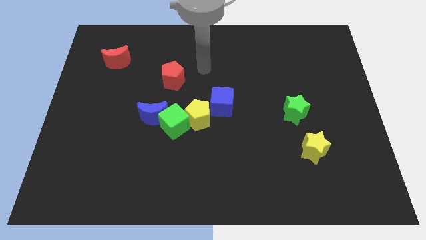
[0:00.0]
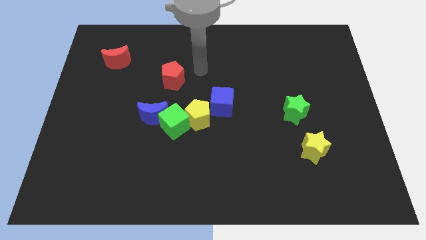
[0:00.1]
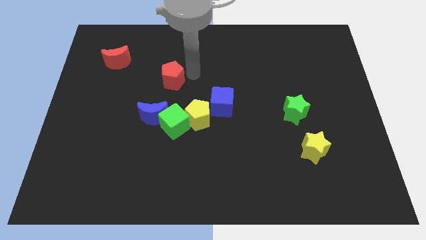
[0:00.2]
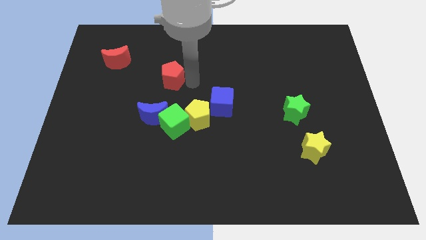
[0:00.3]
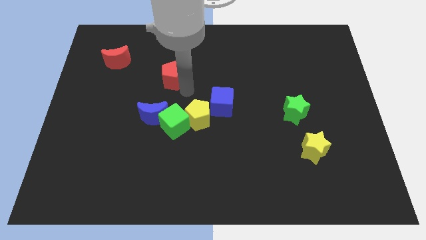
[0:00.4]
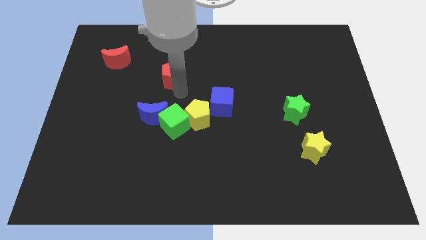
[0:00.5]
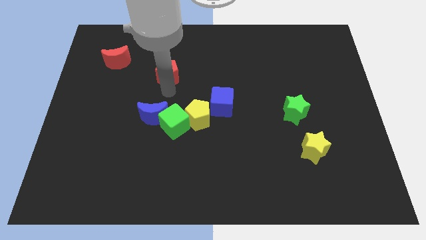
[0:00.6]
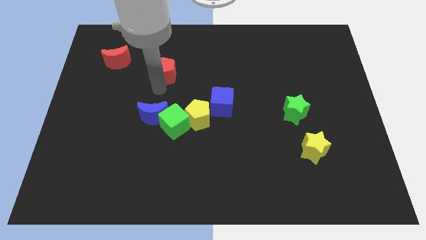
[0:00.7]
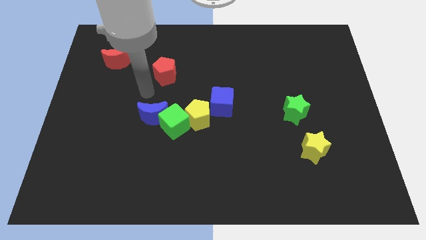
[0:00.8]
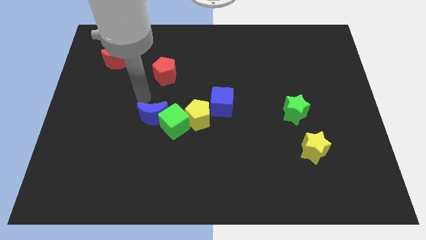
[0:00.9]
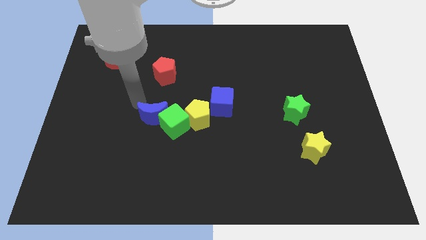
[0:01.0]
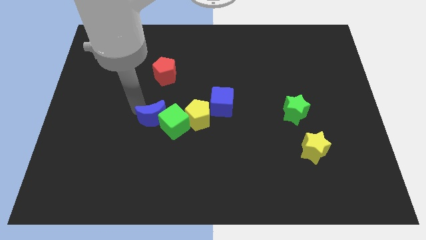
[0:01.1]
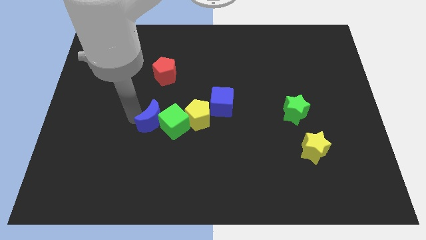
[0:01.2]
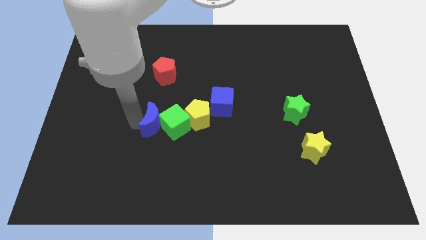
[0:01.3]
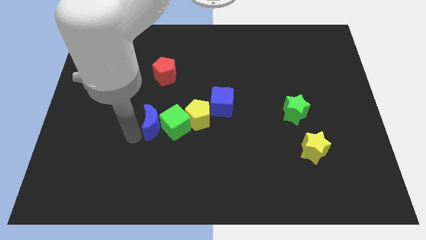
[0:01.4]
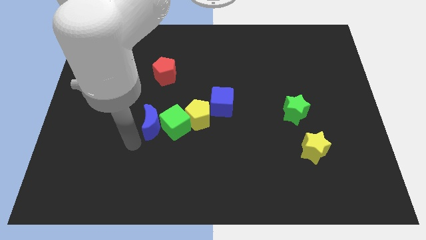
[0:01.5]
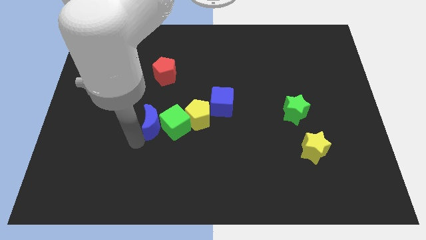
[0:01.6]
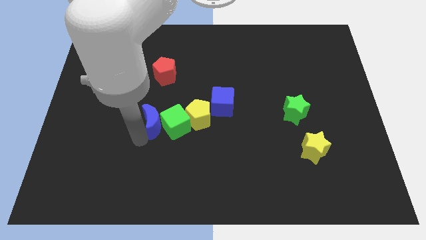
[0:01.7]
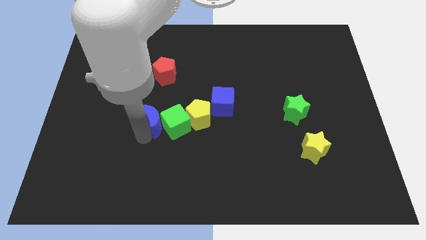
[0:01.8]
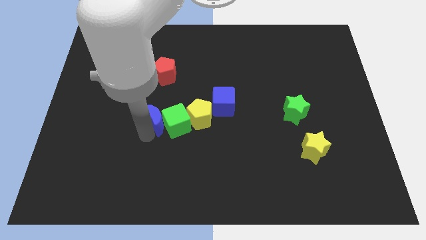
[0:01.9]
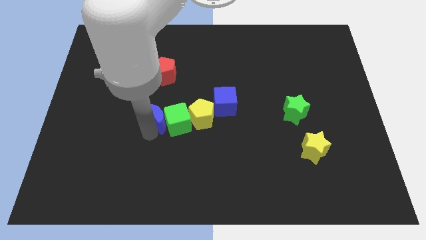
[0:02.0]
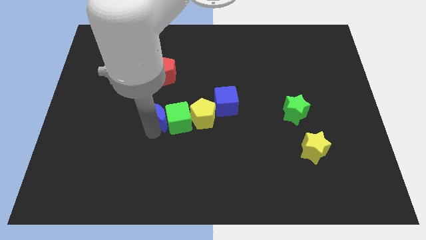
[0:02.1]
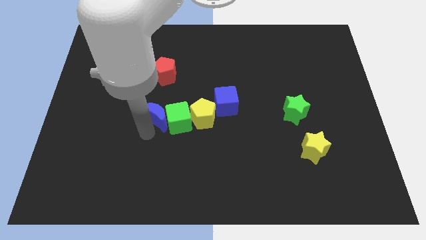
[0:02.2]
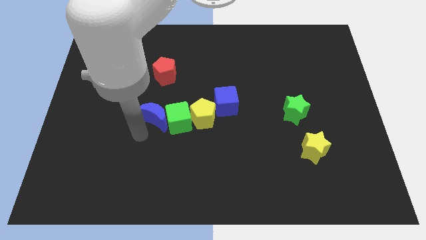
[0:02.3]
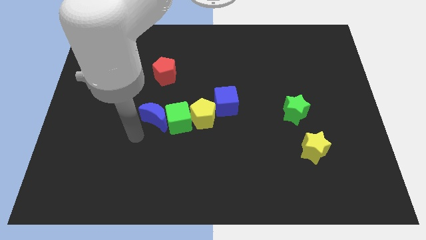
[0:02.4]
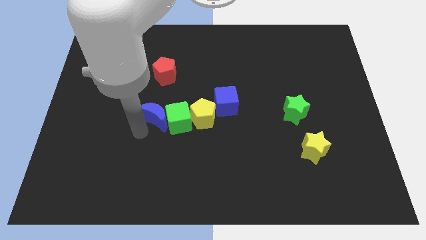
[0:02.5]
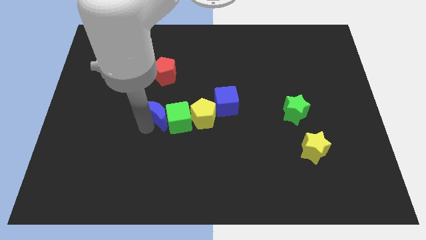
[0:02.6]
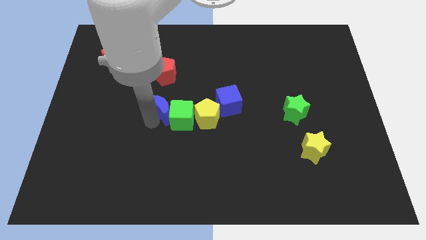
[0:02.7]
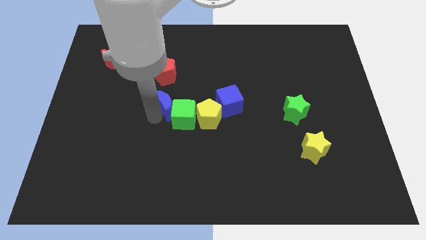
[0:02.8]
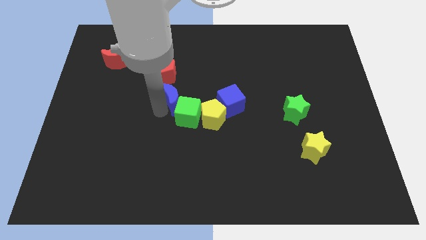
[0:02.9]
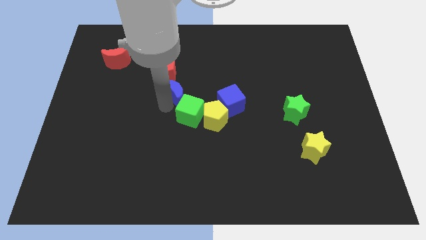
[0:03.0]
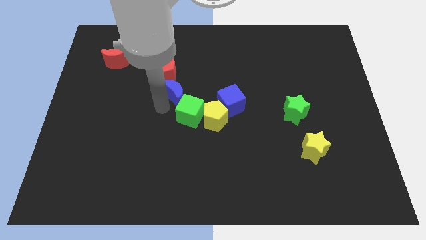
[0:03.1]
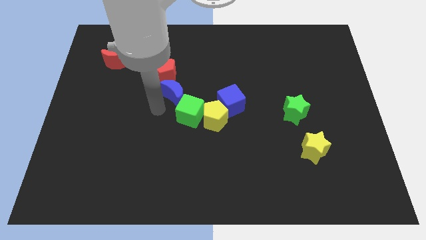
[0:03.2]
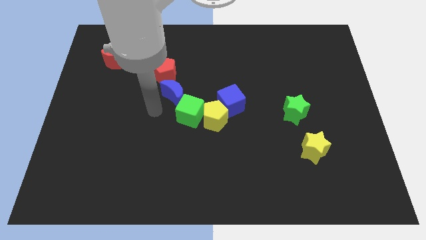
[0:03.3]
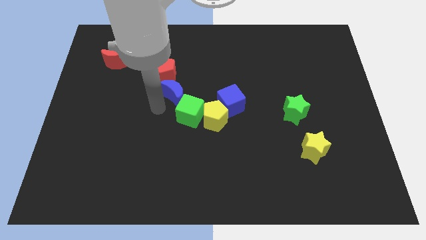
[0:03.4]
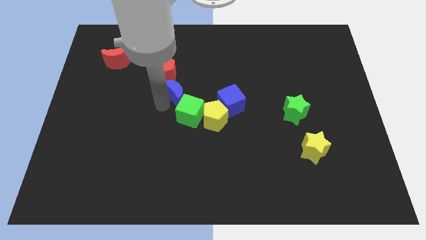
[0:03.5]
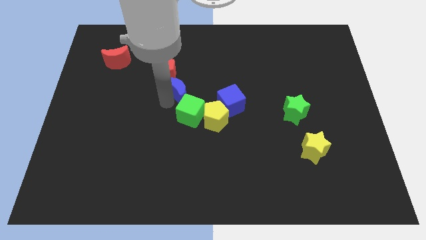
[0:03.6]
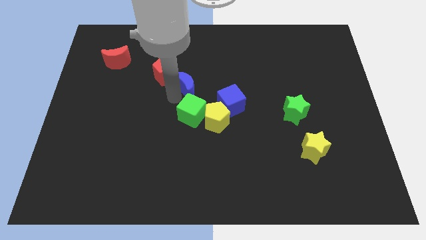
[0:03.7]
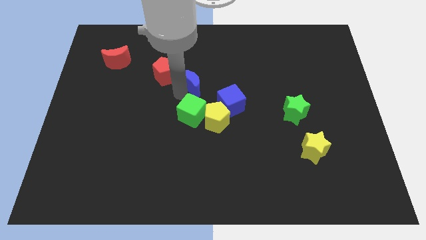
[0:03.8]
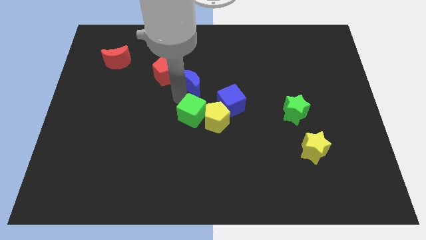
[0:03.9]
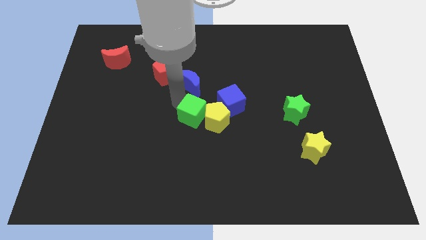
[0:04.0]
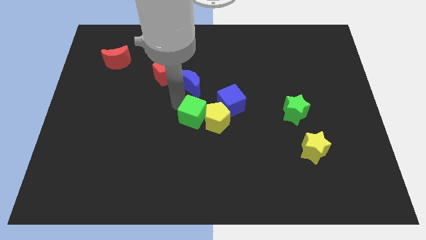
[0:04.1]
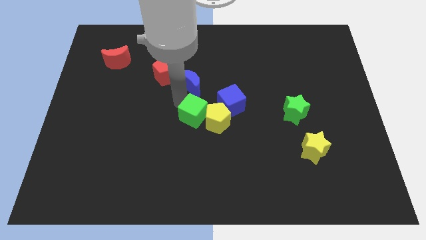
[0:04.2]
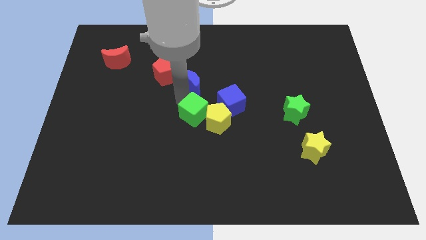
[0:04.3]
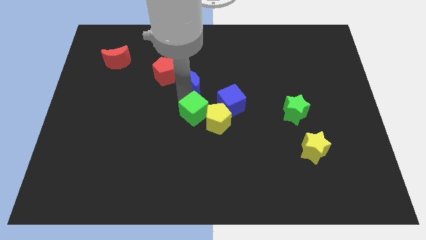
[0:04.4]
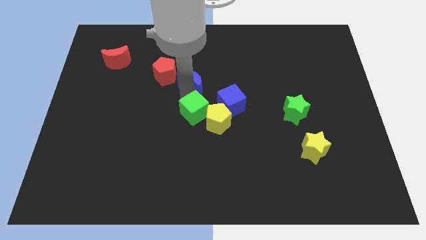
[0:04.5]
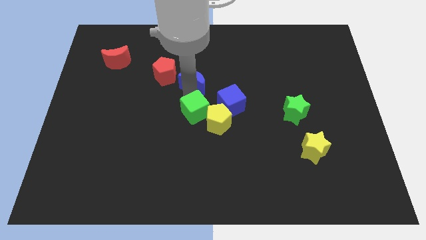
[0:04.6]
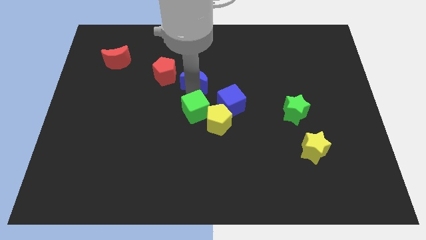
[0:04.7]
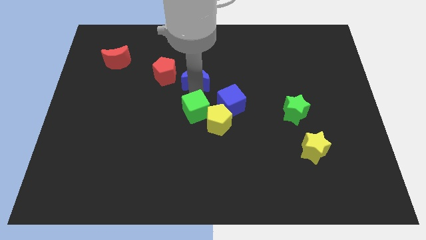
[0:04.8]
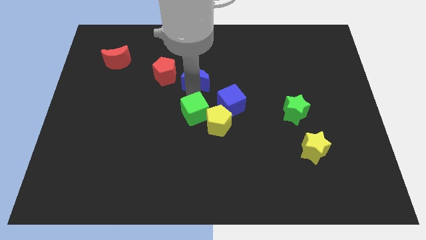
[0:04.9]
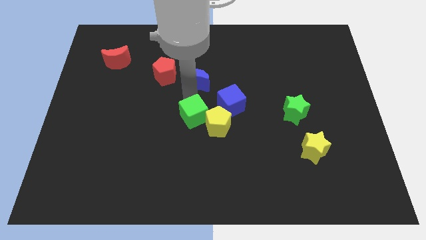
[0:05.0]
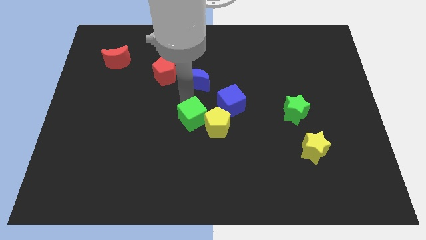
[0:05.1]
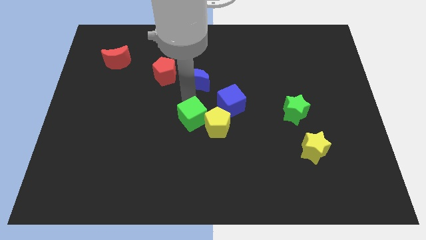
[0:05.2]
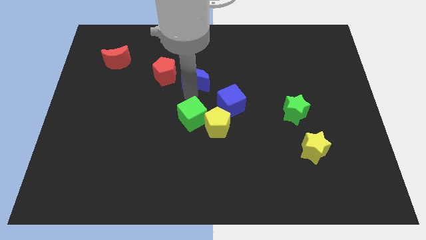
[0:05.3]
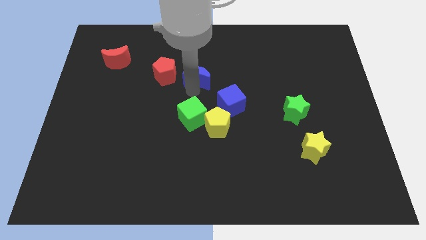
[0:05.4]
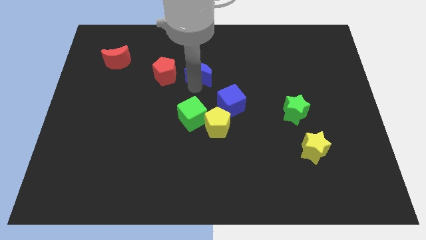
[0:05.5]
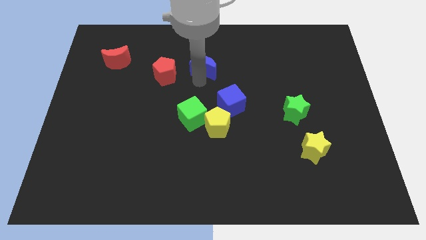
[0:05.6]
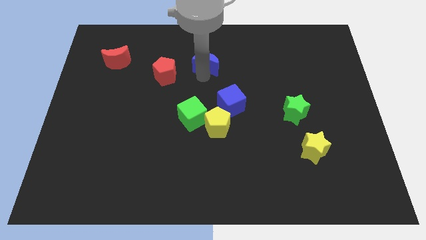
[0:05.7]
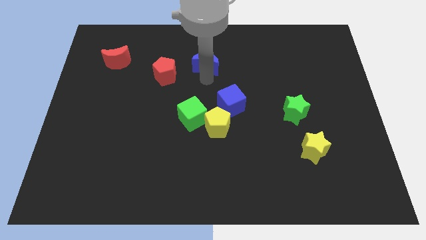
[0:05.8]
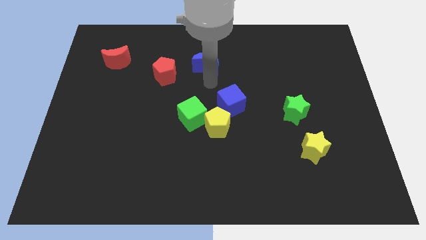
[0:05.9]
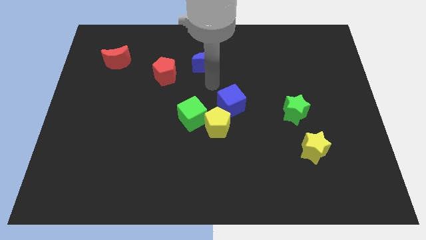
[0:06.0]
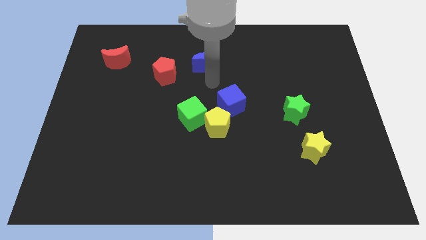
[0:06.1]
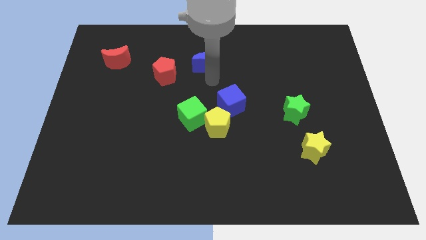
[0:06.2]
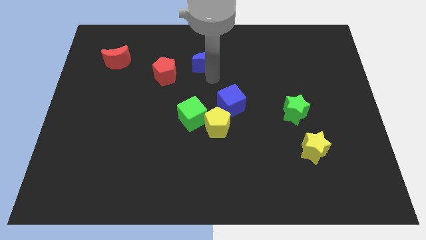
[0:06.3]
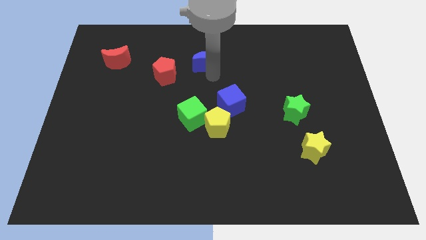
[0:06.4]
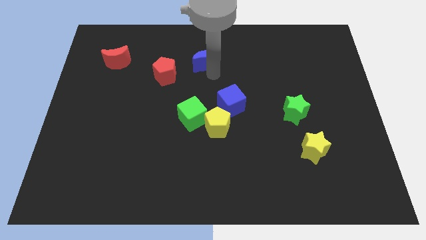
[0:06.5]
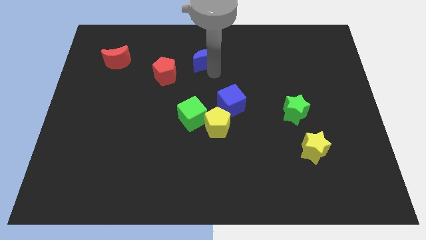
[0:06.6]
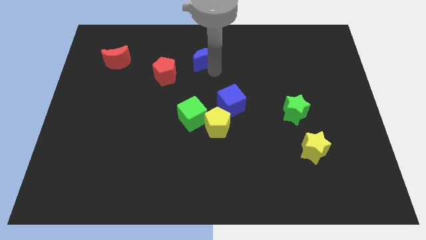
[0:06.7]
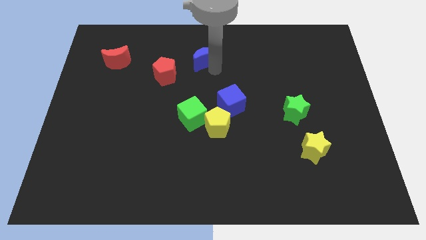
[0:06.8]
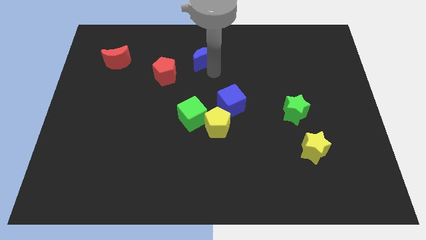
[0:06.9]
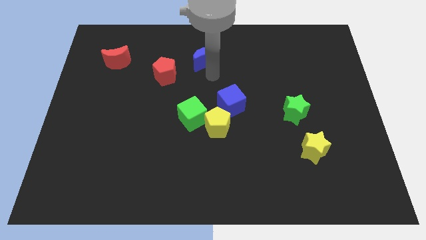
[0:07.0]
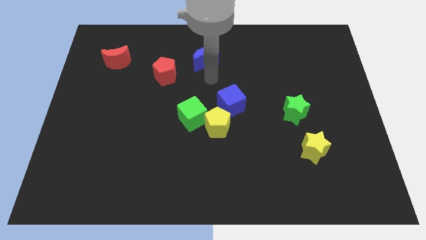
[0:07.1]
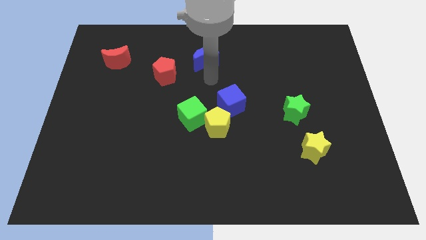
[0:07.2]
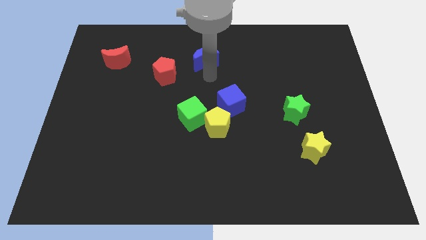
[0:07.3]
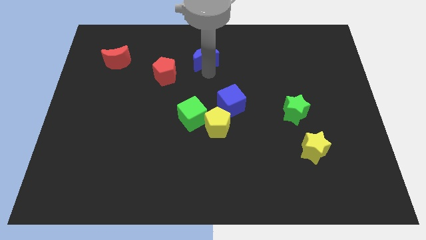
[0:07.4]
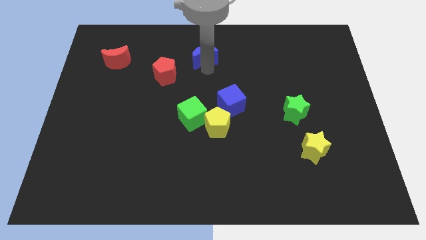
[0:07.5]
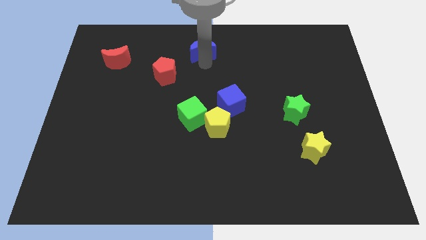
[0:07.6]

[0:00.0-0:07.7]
push the blue moon to the top side
